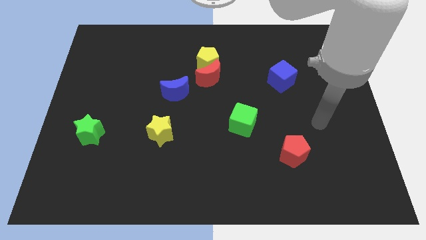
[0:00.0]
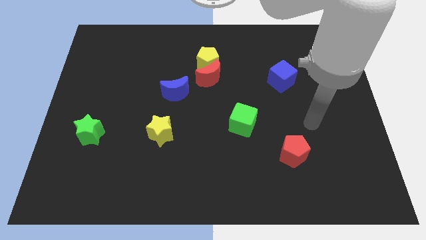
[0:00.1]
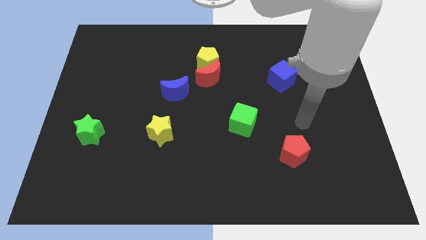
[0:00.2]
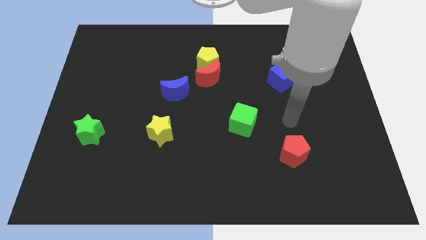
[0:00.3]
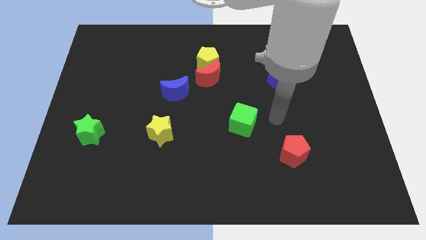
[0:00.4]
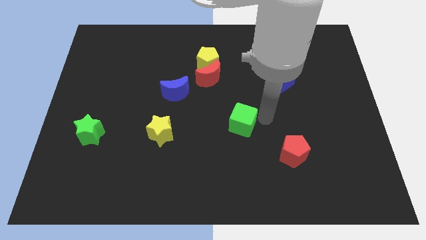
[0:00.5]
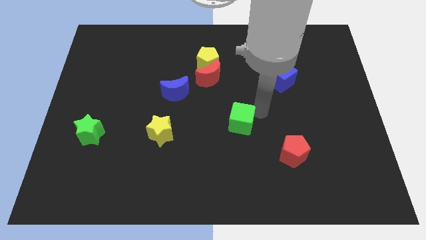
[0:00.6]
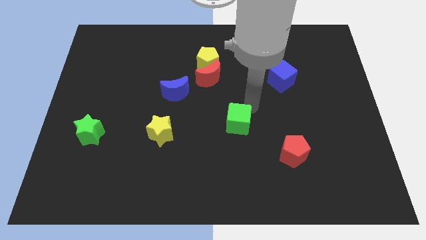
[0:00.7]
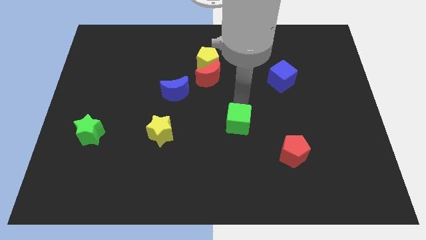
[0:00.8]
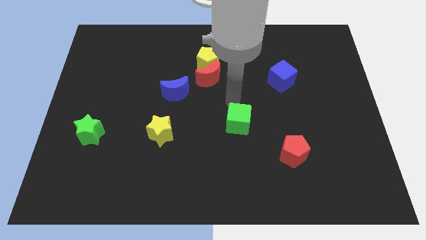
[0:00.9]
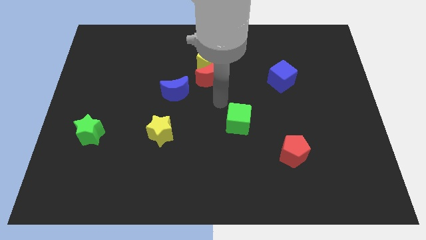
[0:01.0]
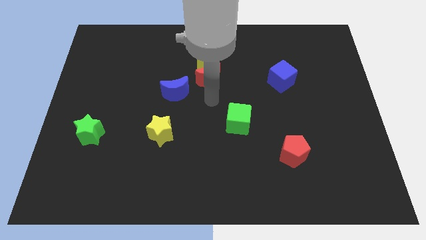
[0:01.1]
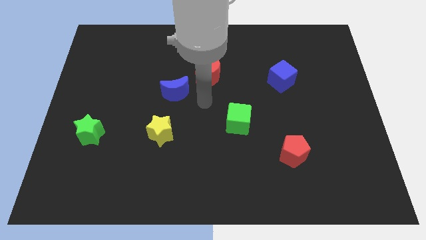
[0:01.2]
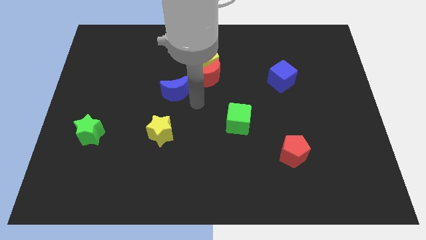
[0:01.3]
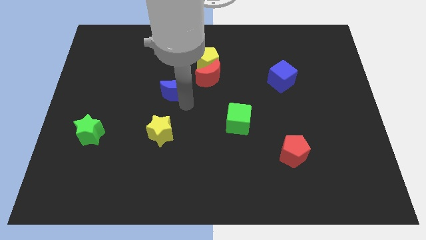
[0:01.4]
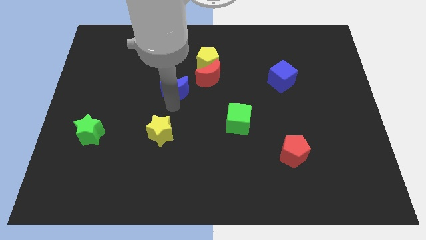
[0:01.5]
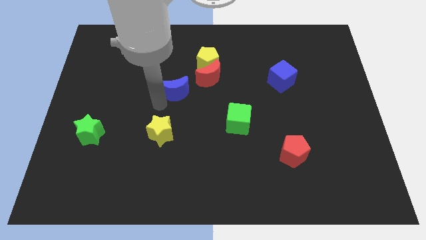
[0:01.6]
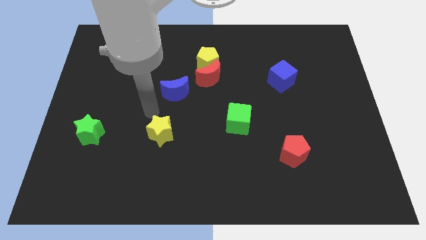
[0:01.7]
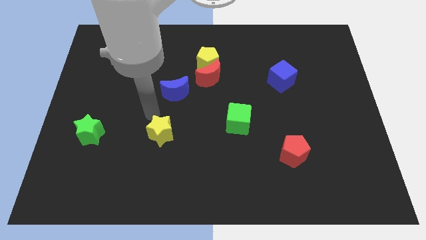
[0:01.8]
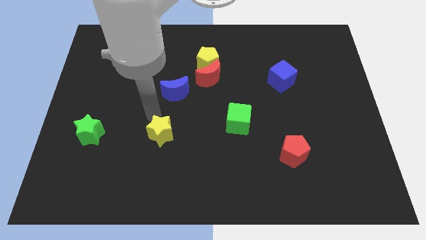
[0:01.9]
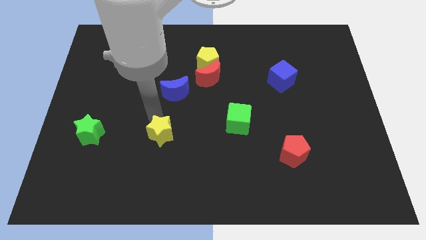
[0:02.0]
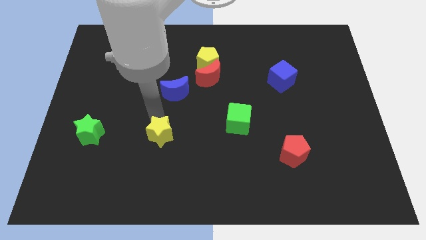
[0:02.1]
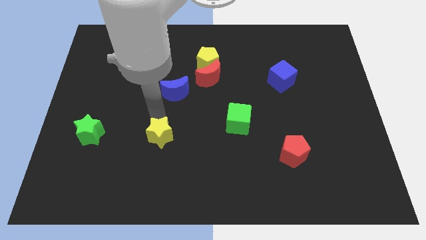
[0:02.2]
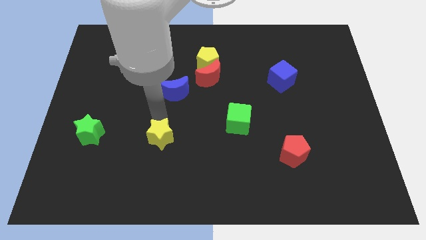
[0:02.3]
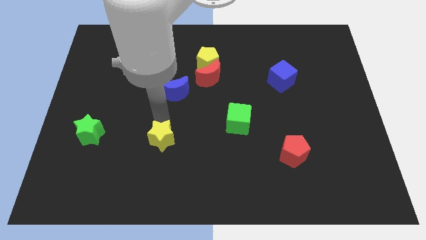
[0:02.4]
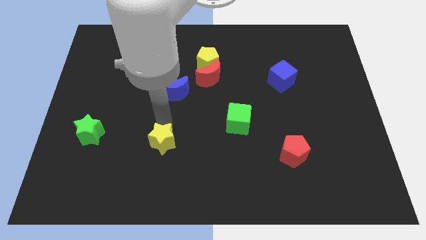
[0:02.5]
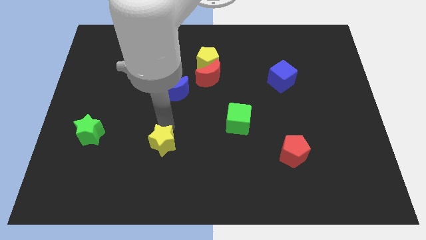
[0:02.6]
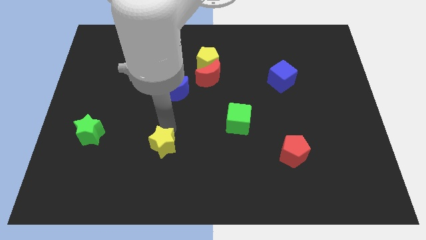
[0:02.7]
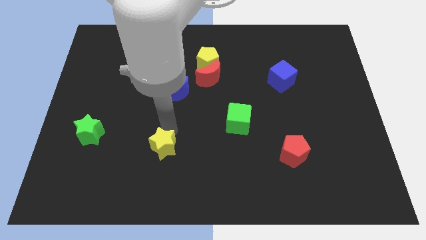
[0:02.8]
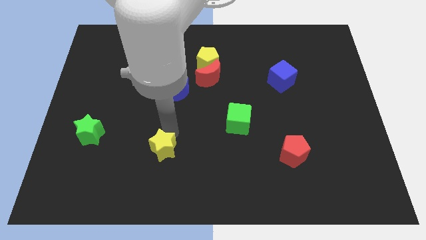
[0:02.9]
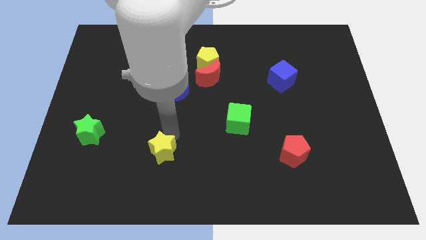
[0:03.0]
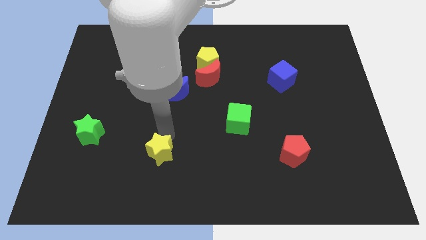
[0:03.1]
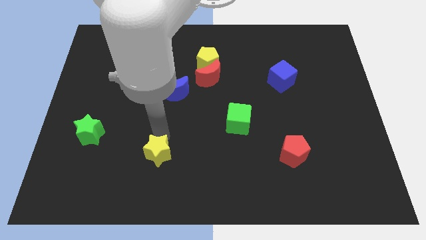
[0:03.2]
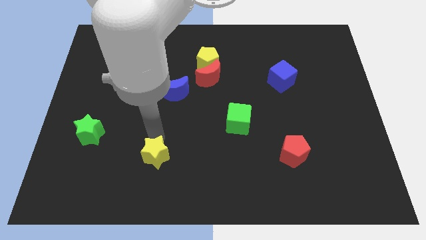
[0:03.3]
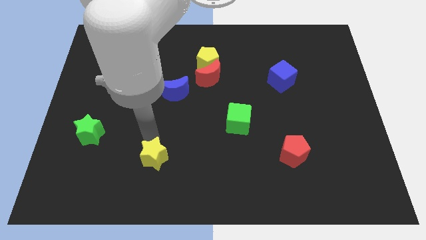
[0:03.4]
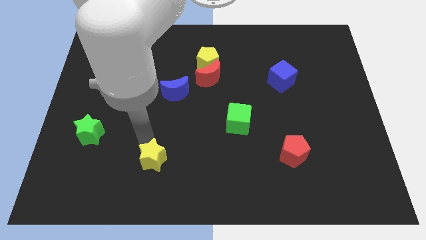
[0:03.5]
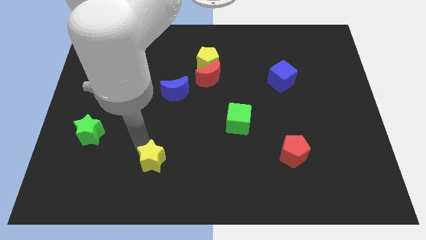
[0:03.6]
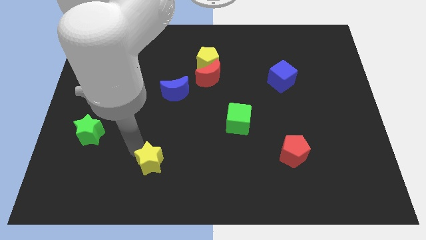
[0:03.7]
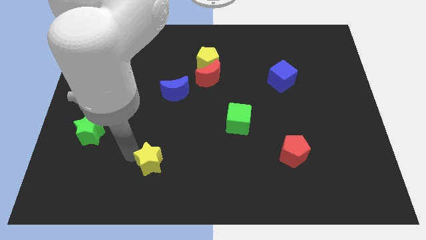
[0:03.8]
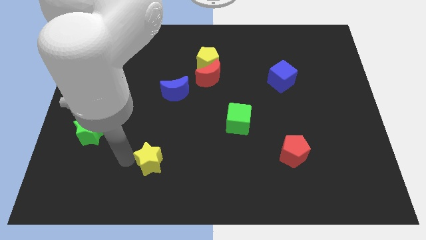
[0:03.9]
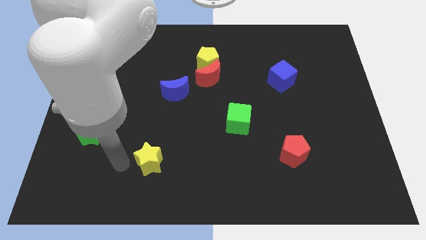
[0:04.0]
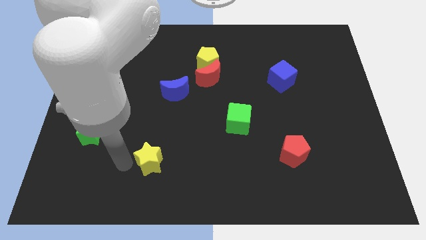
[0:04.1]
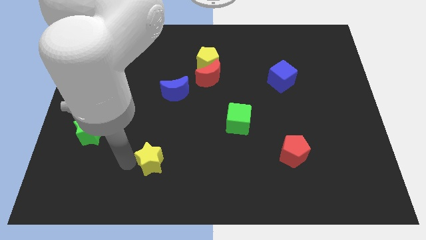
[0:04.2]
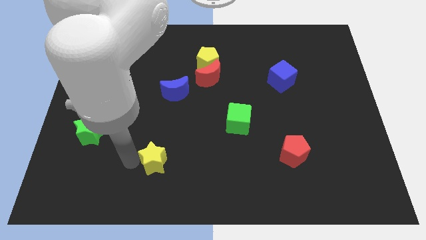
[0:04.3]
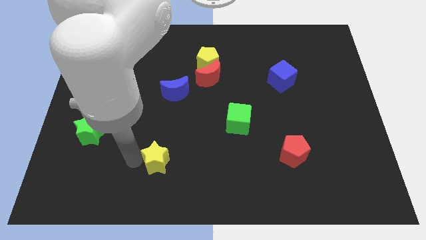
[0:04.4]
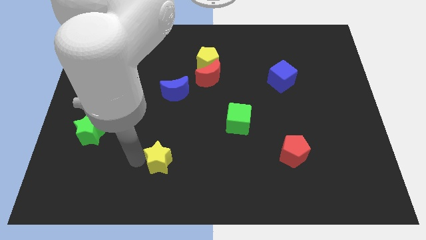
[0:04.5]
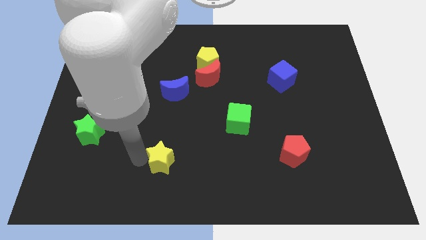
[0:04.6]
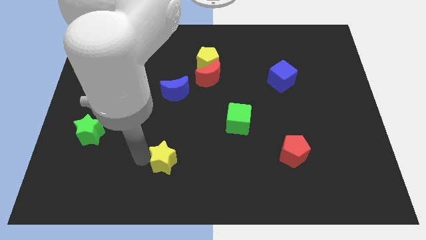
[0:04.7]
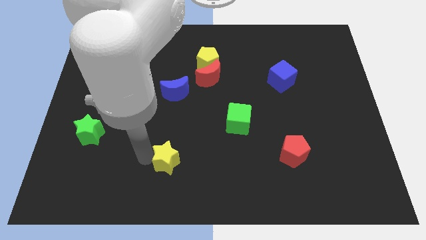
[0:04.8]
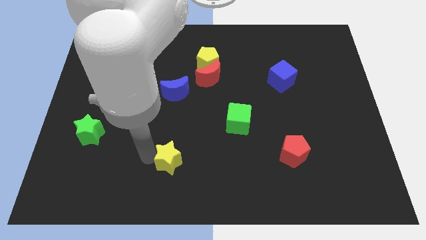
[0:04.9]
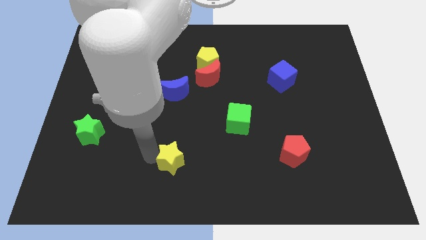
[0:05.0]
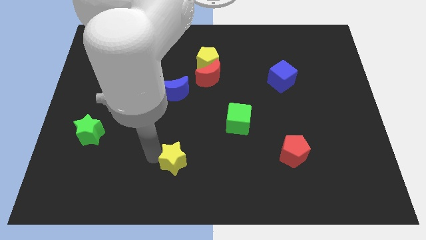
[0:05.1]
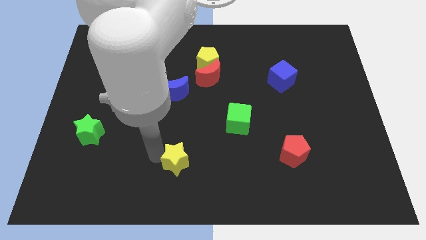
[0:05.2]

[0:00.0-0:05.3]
push the yellow star to the bottom
